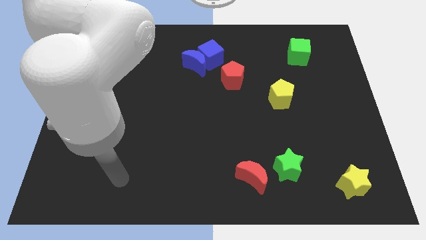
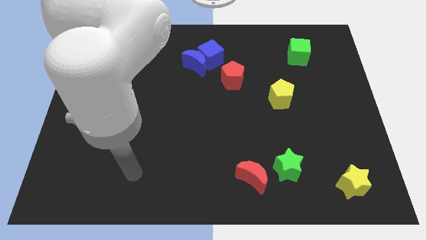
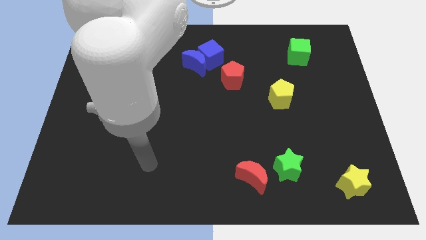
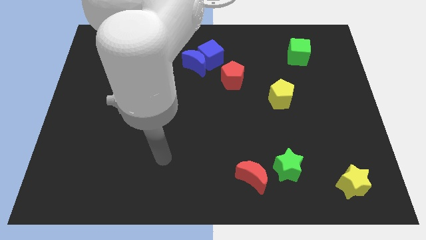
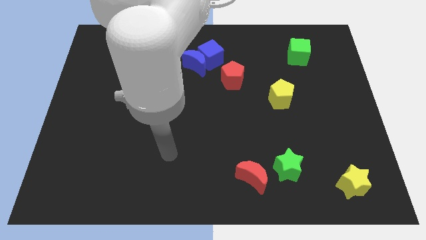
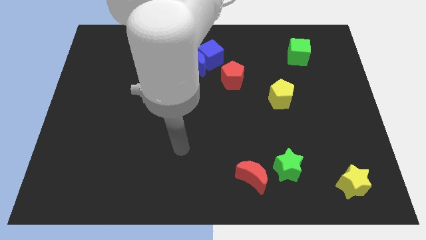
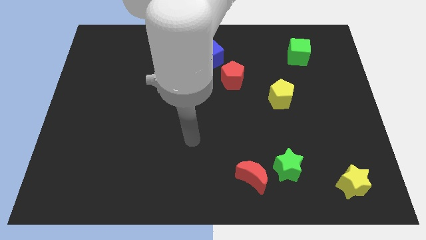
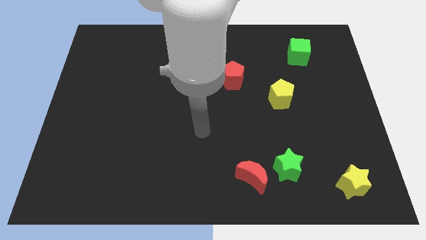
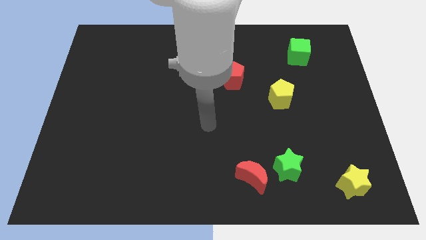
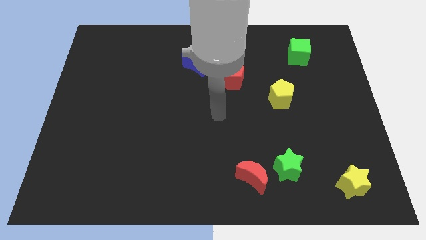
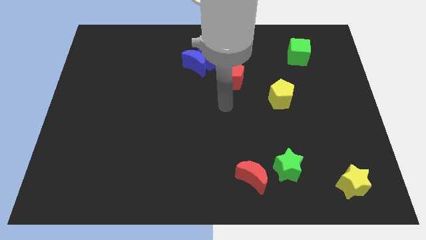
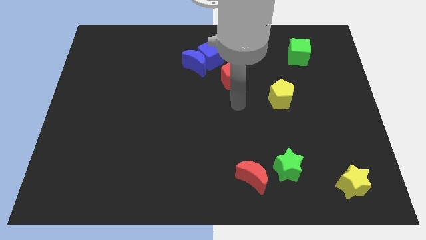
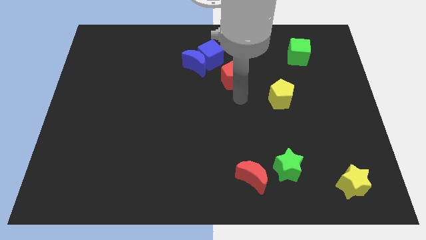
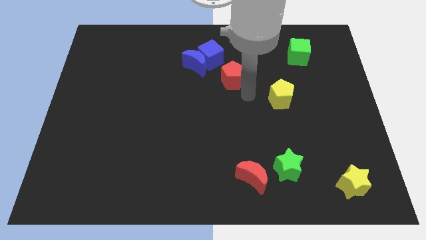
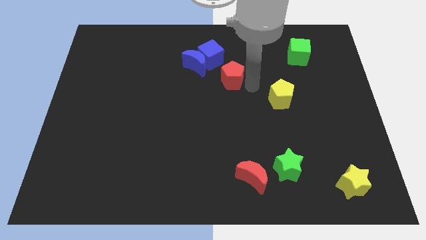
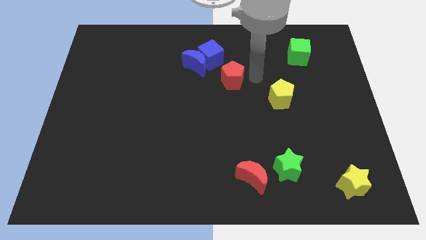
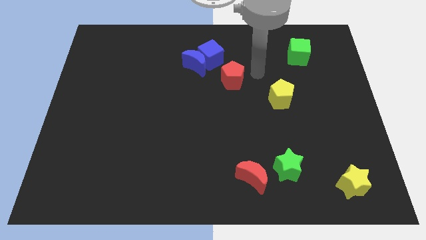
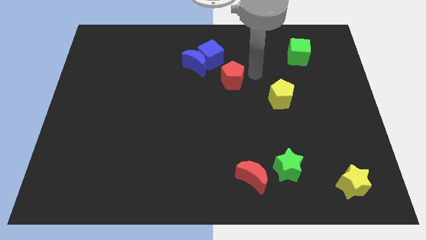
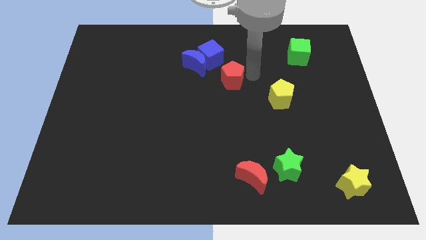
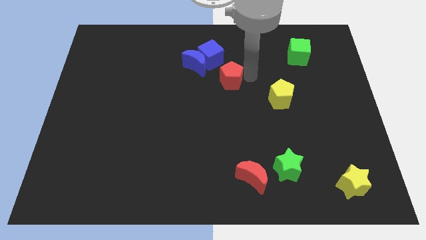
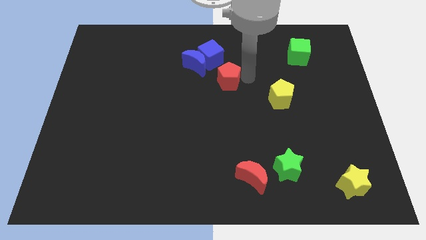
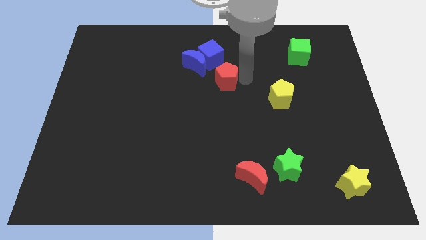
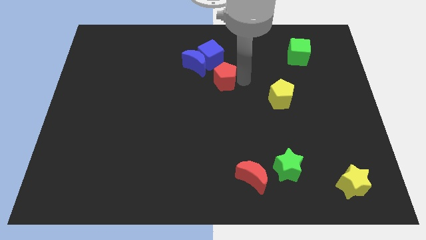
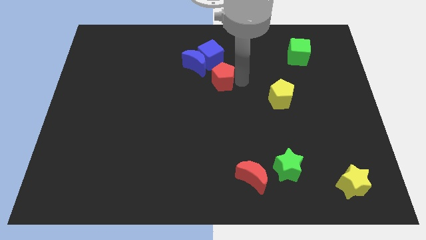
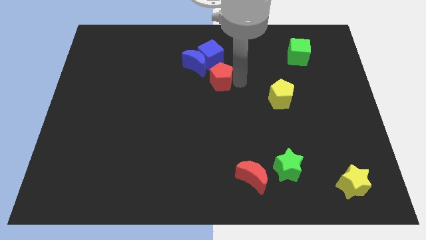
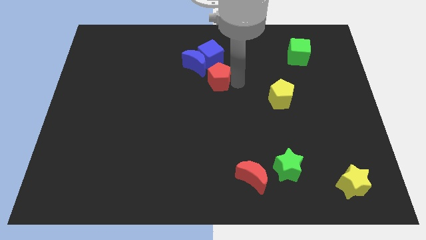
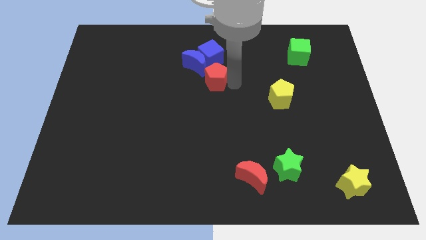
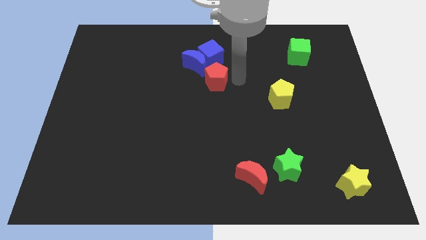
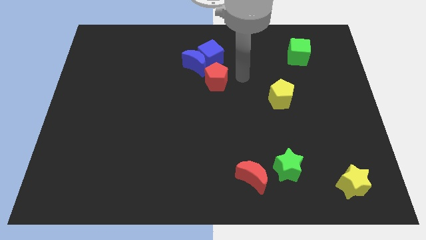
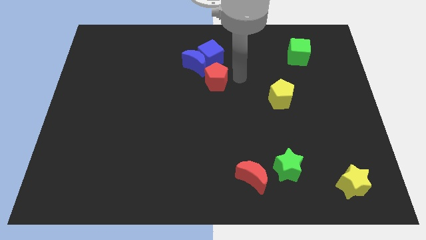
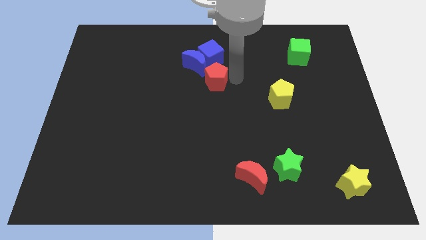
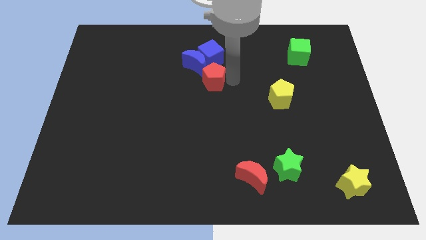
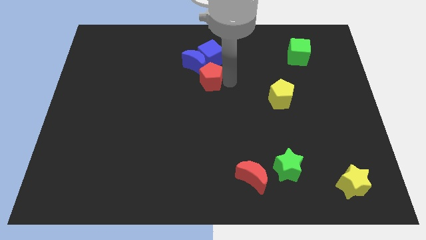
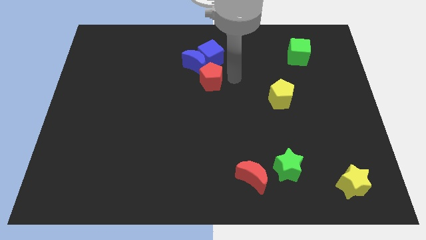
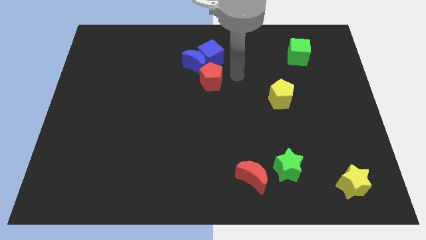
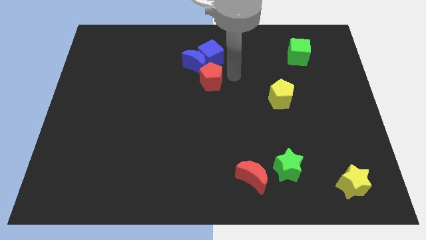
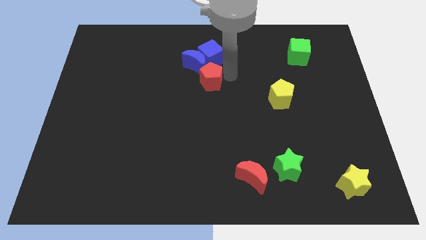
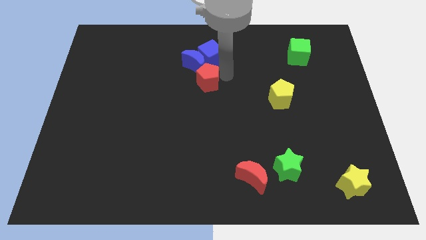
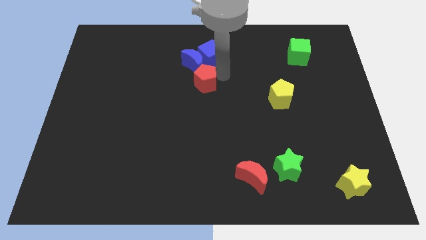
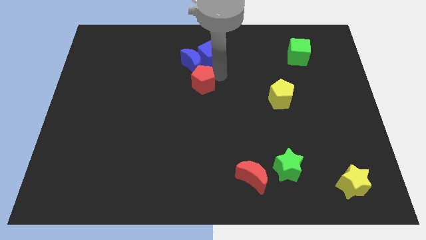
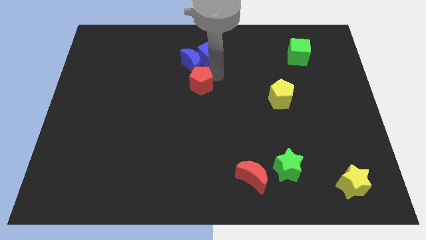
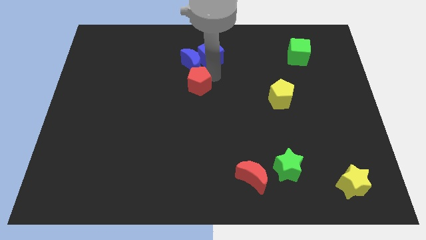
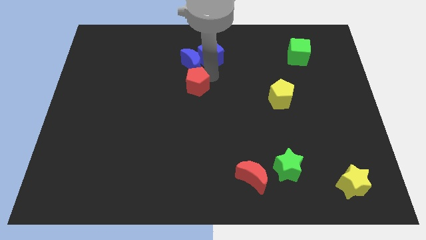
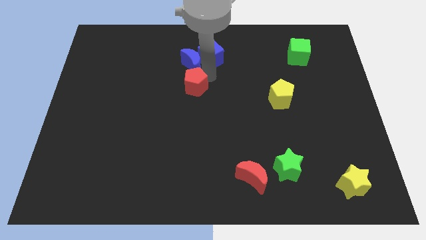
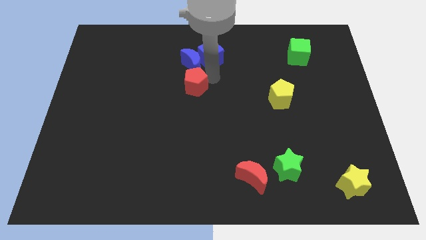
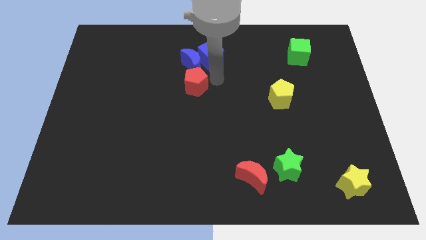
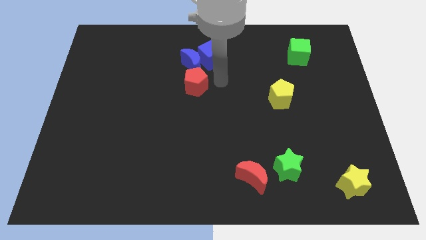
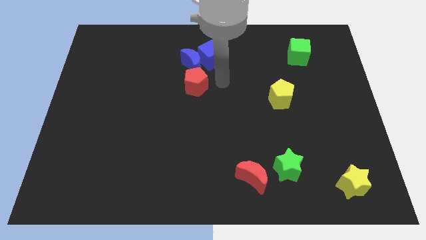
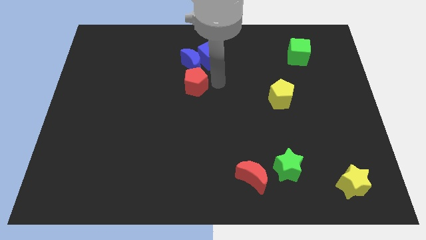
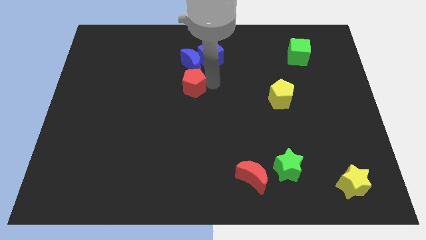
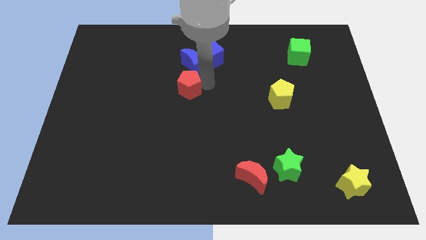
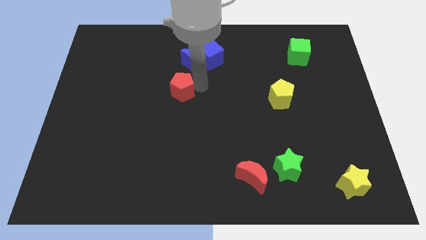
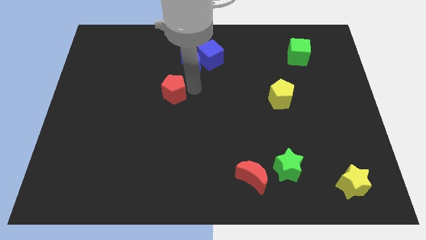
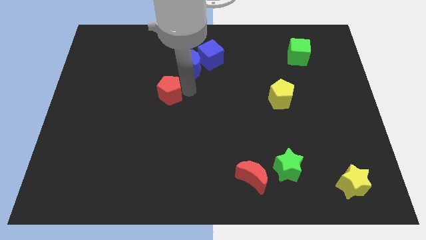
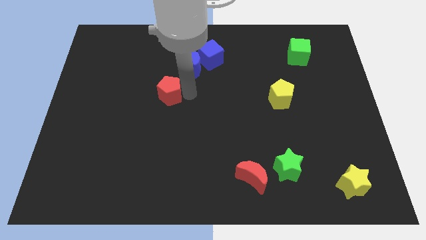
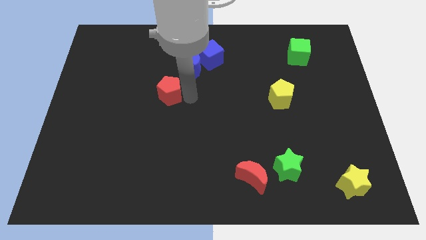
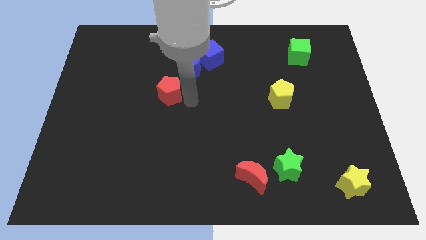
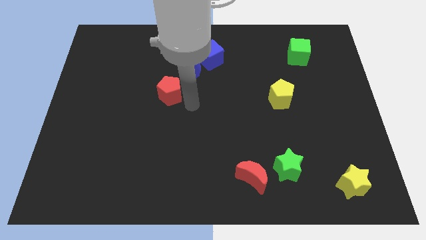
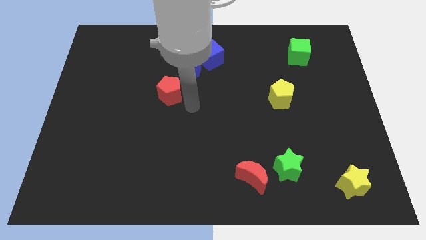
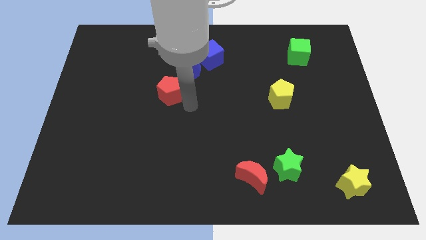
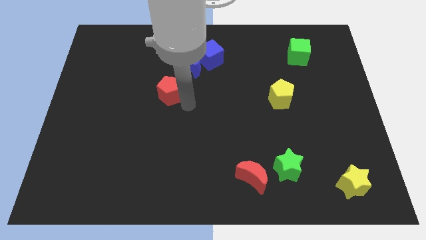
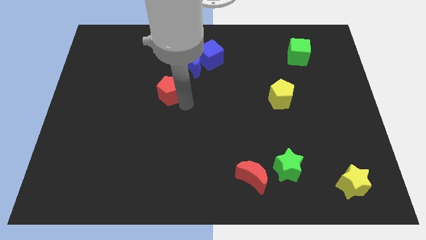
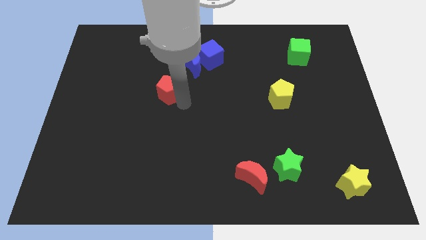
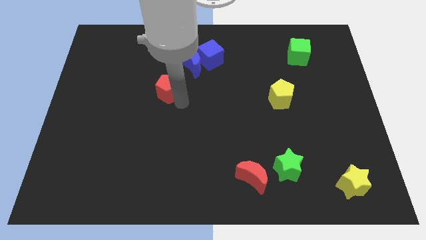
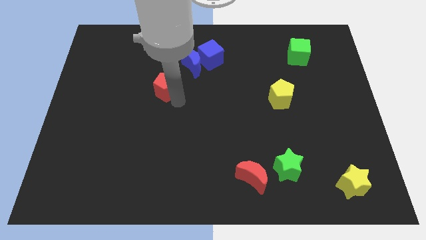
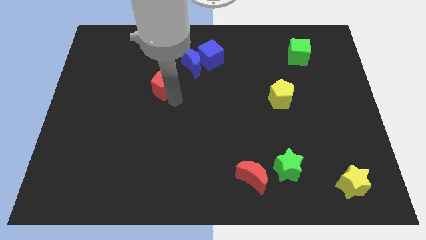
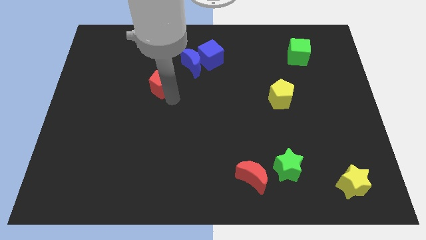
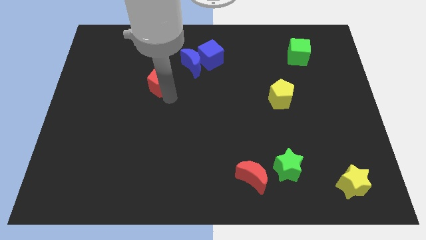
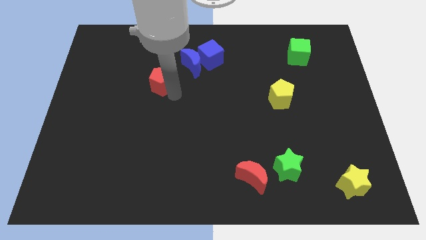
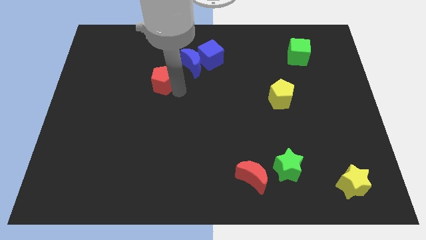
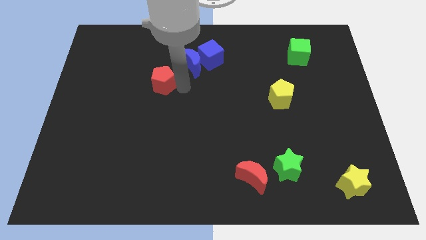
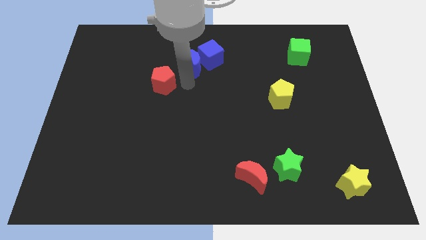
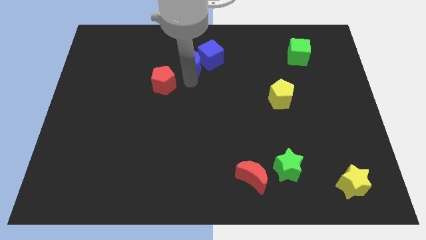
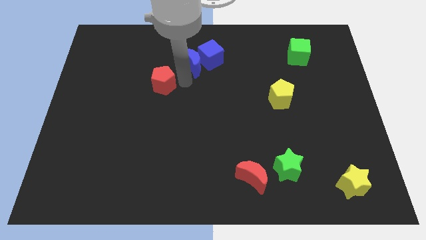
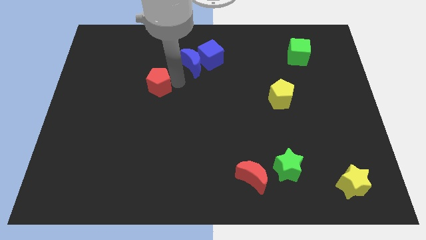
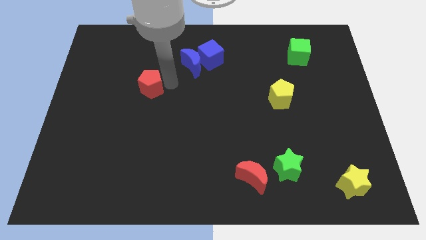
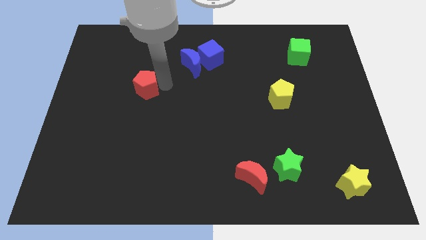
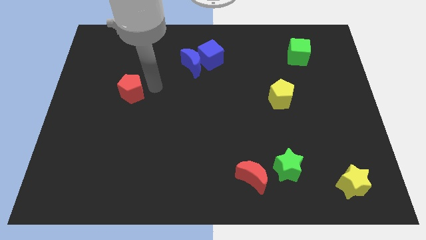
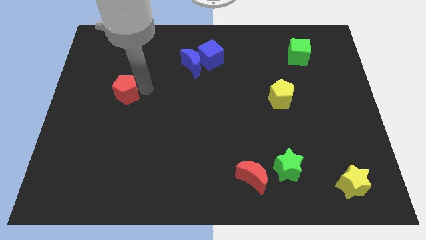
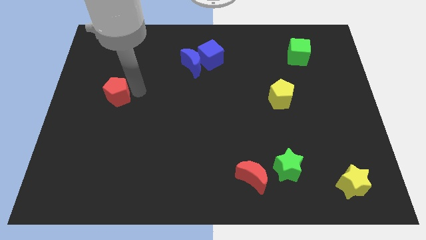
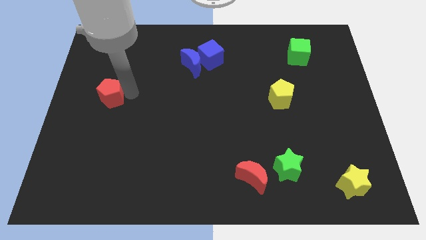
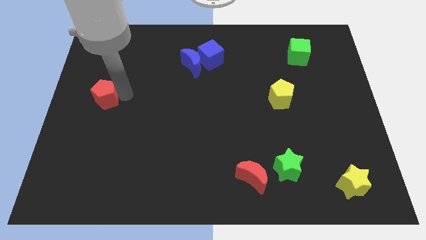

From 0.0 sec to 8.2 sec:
put the red pentagon to the center left
